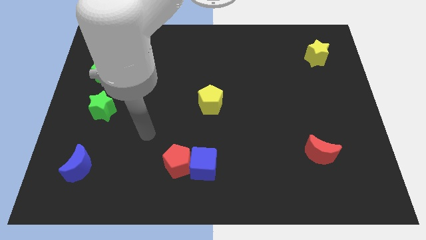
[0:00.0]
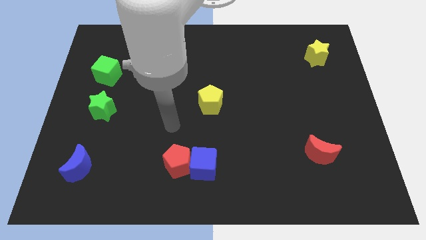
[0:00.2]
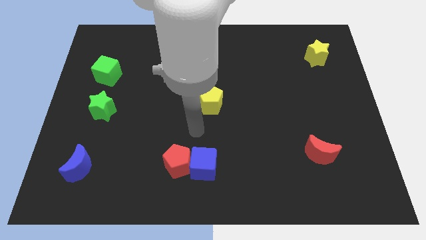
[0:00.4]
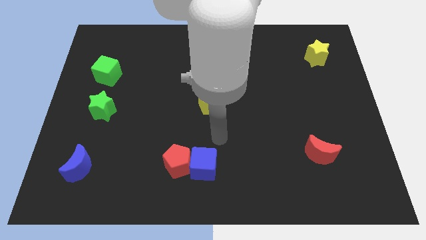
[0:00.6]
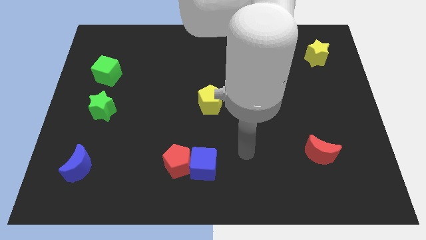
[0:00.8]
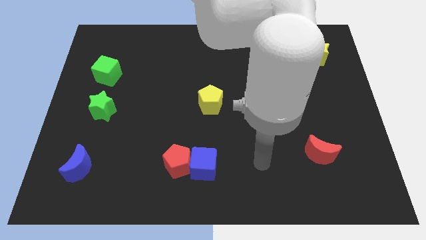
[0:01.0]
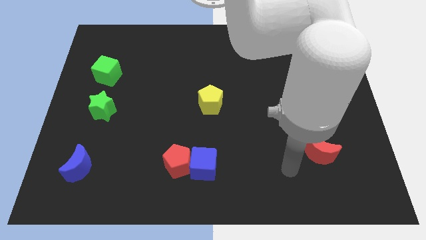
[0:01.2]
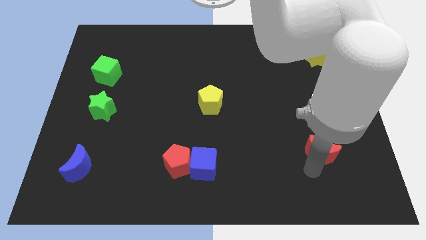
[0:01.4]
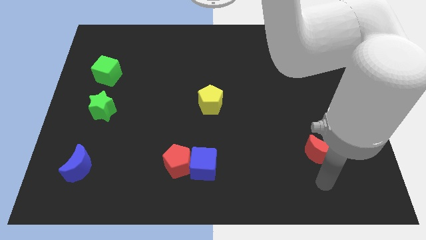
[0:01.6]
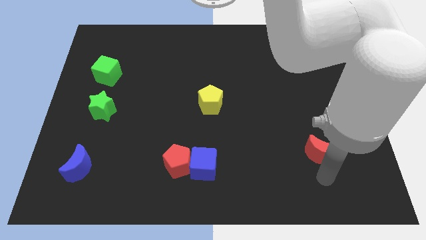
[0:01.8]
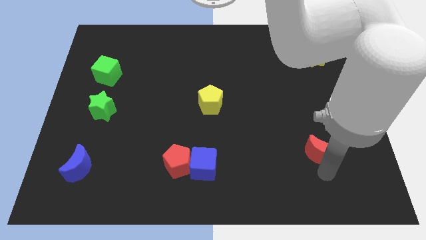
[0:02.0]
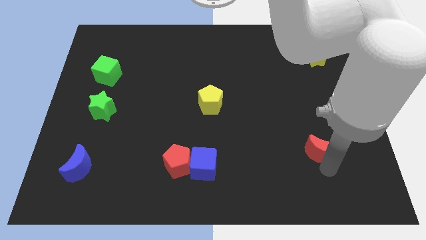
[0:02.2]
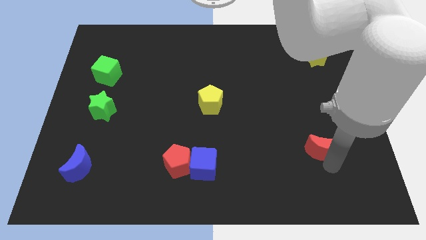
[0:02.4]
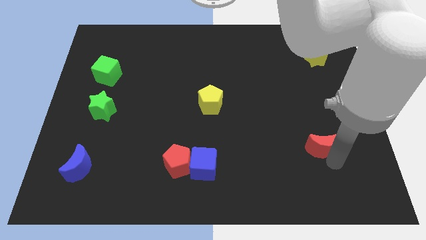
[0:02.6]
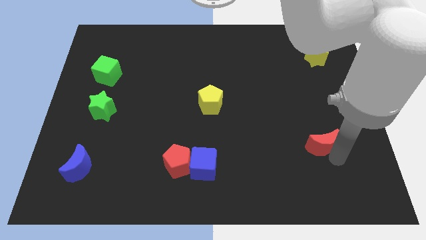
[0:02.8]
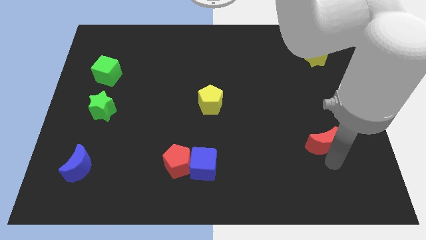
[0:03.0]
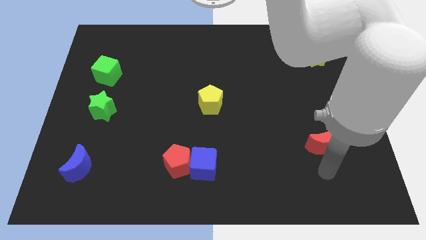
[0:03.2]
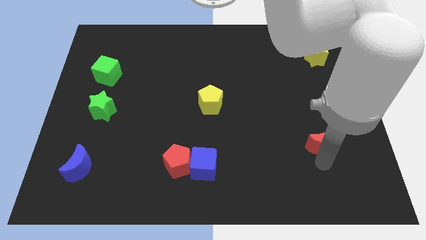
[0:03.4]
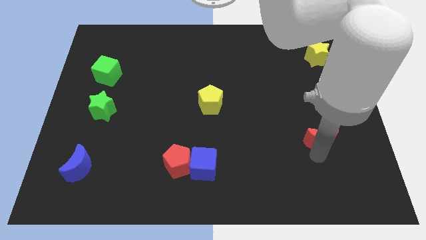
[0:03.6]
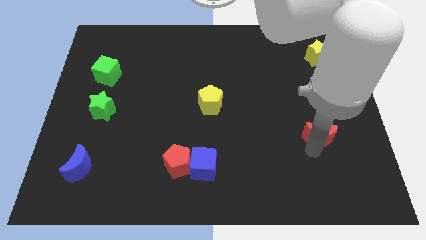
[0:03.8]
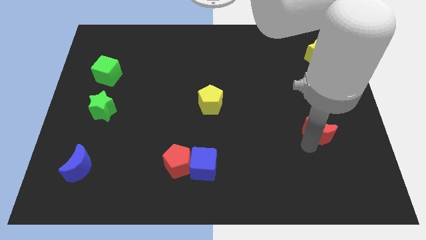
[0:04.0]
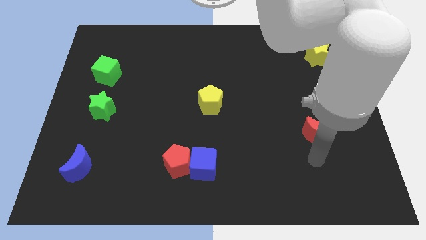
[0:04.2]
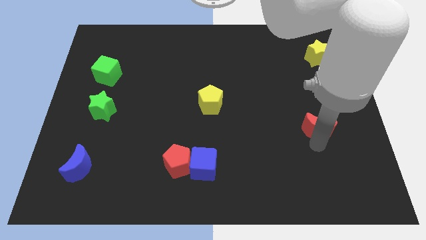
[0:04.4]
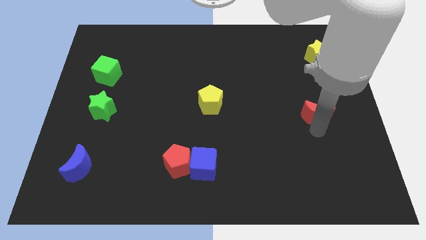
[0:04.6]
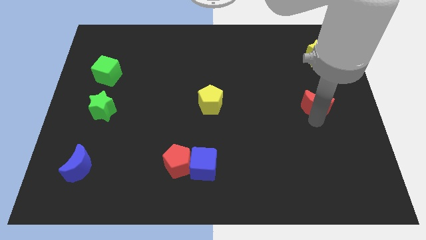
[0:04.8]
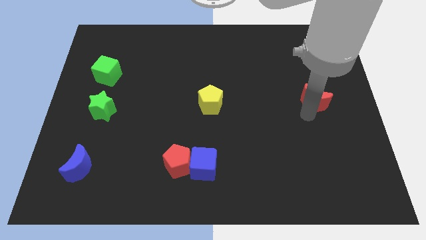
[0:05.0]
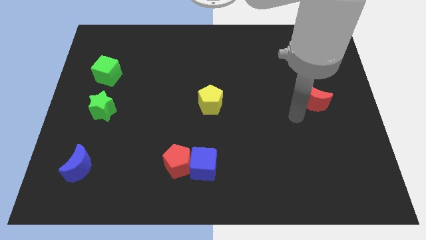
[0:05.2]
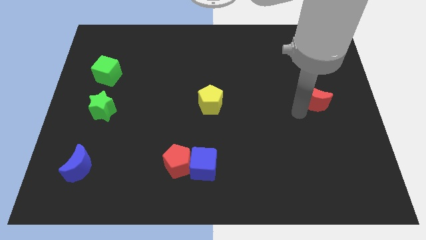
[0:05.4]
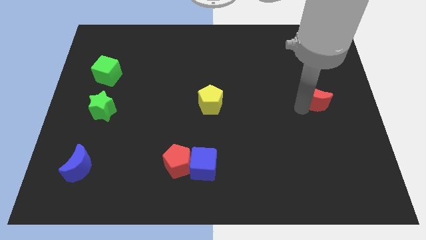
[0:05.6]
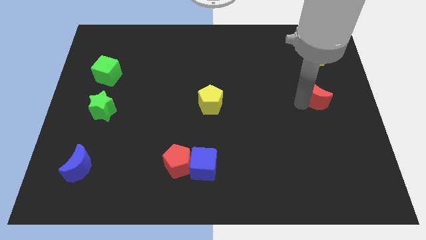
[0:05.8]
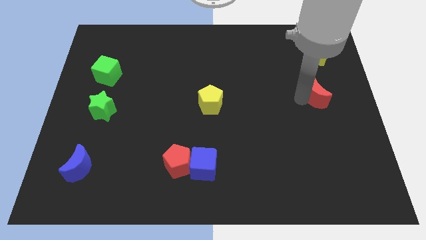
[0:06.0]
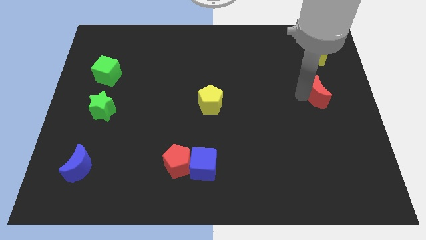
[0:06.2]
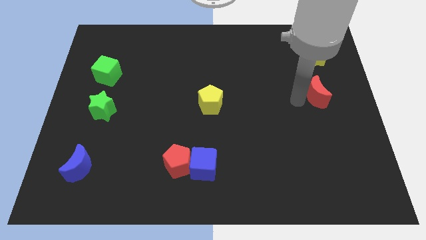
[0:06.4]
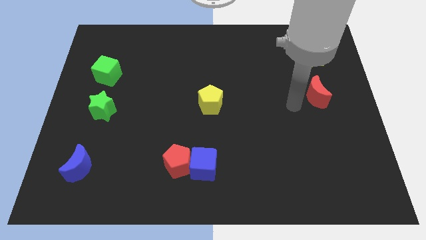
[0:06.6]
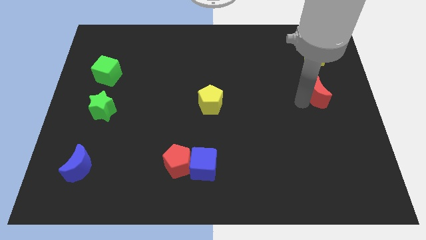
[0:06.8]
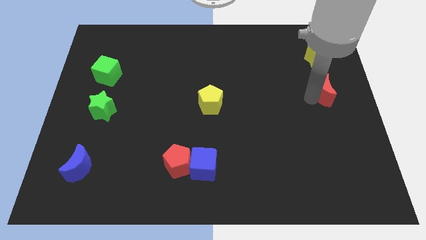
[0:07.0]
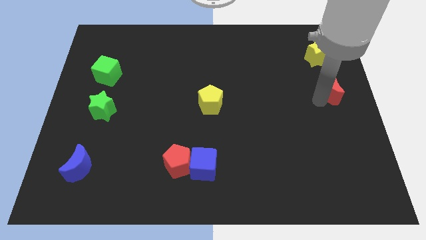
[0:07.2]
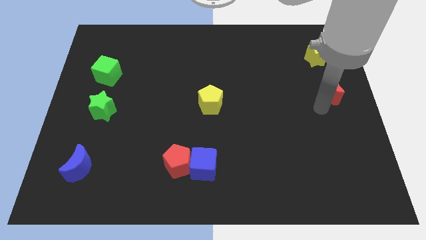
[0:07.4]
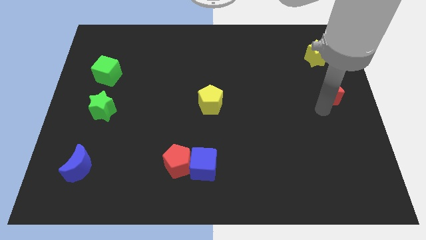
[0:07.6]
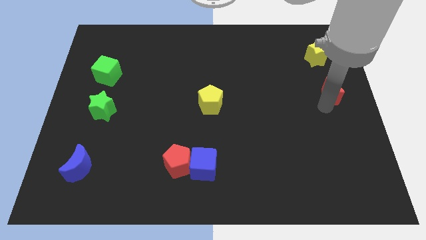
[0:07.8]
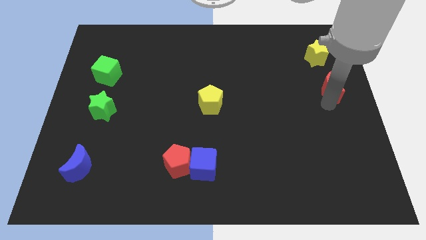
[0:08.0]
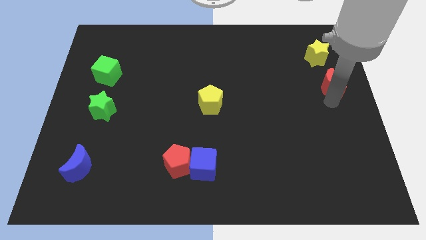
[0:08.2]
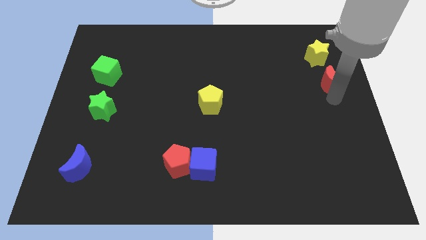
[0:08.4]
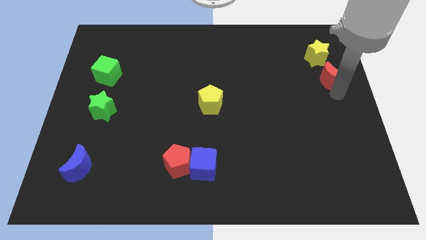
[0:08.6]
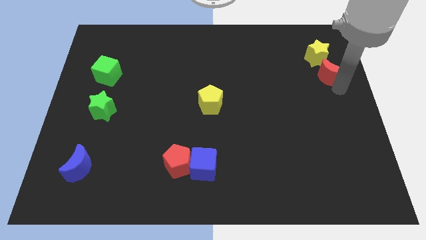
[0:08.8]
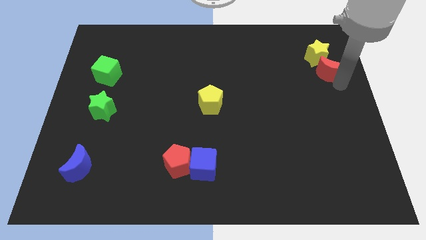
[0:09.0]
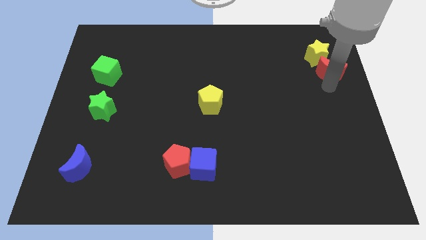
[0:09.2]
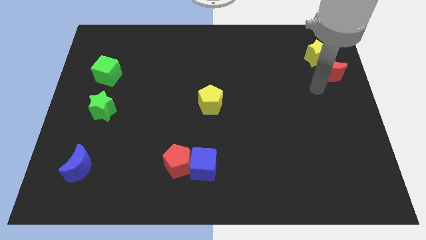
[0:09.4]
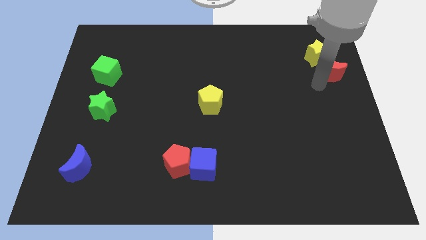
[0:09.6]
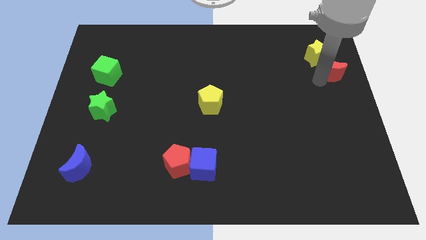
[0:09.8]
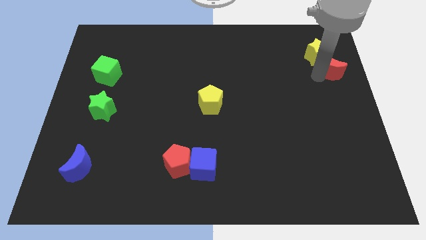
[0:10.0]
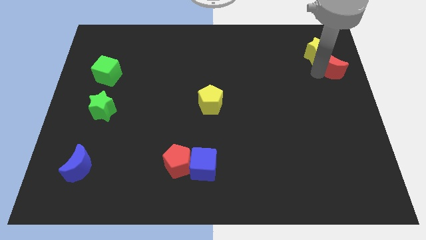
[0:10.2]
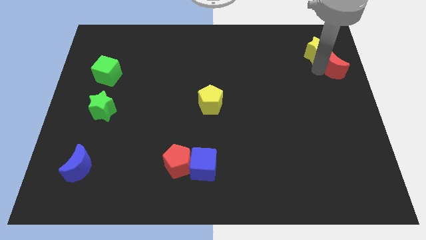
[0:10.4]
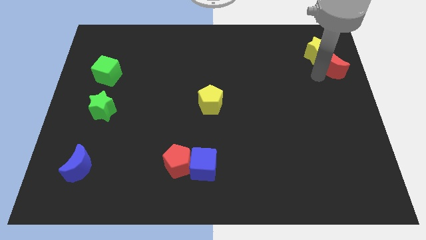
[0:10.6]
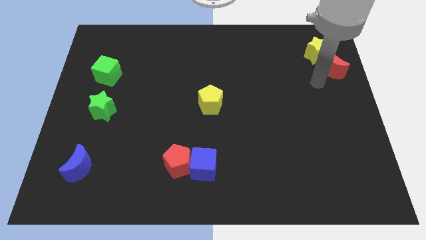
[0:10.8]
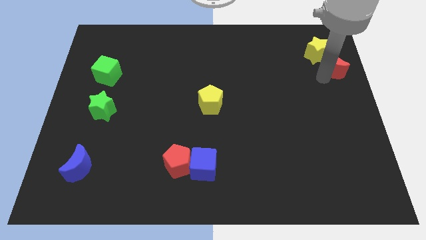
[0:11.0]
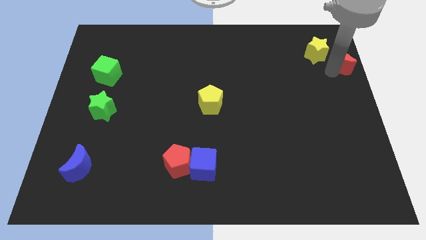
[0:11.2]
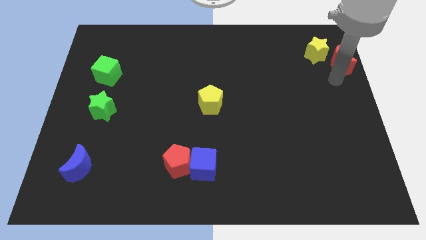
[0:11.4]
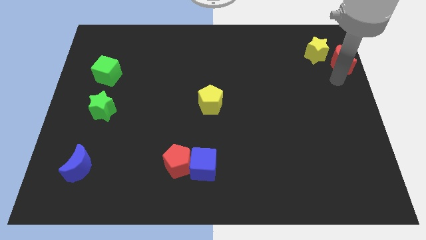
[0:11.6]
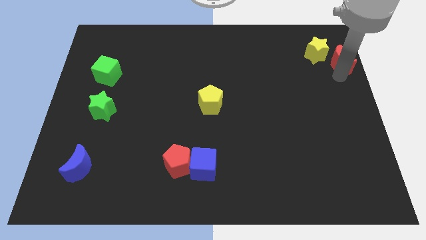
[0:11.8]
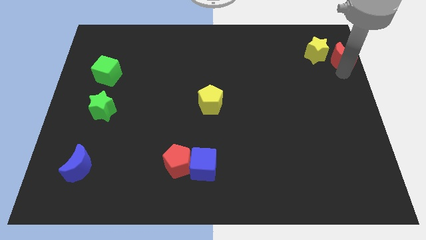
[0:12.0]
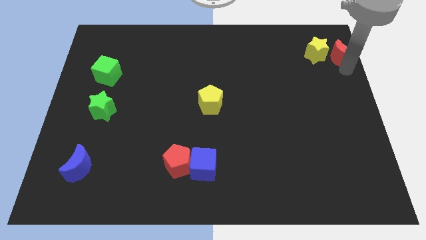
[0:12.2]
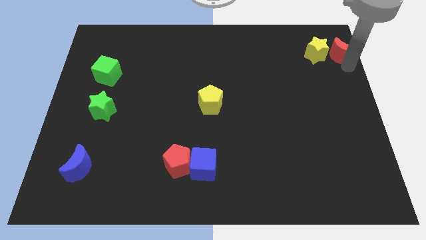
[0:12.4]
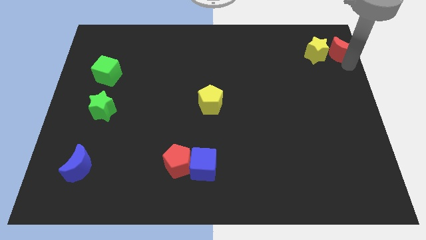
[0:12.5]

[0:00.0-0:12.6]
slide the red moon to the top right
